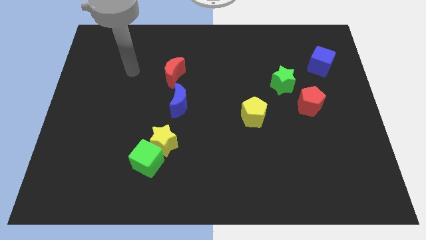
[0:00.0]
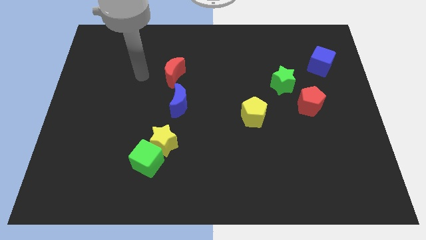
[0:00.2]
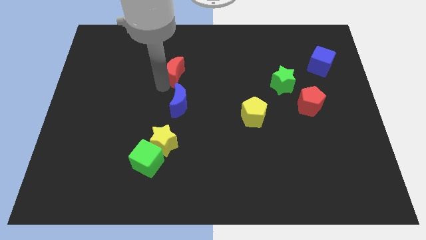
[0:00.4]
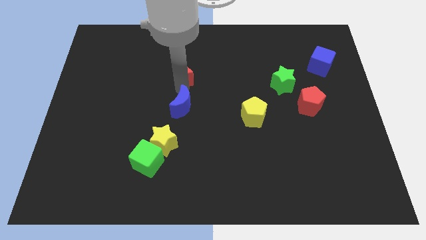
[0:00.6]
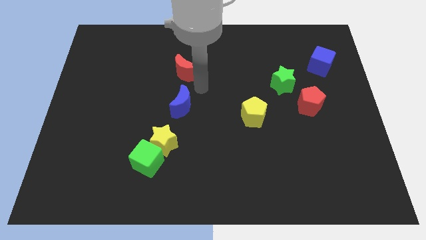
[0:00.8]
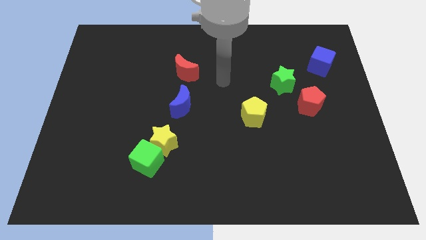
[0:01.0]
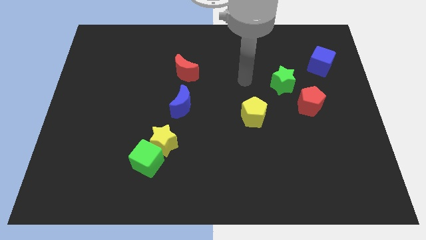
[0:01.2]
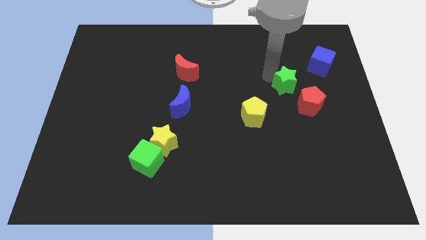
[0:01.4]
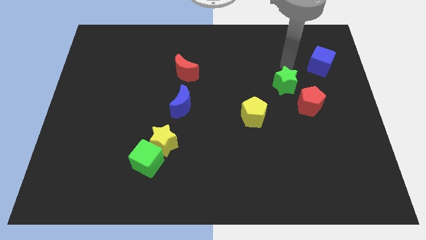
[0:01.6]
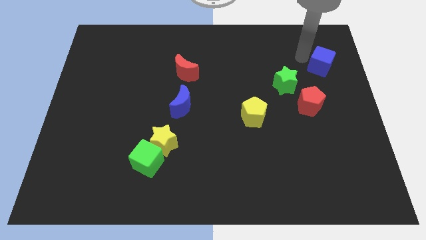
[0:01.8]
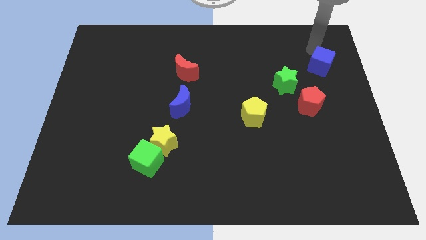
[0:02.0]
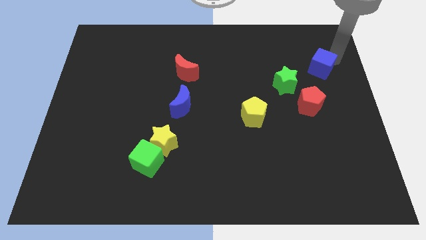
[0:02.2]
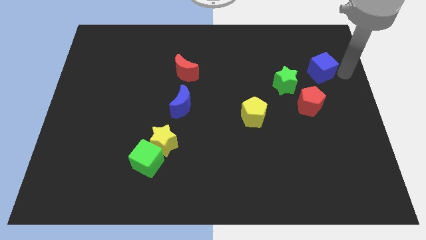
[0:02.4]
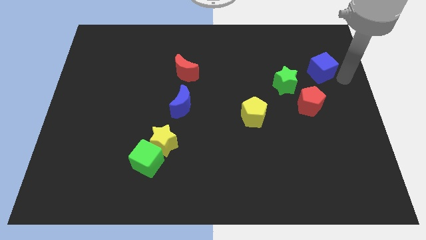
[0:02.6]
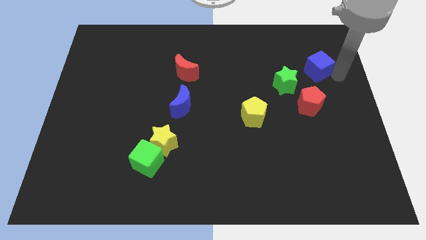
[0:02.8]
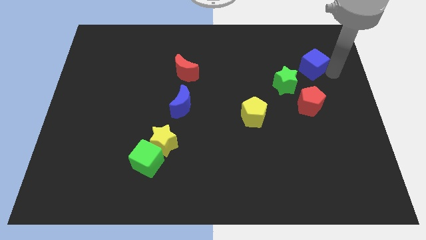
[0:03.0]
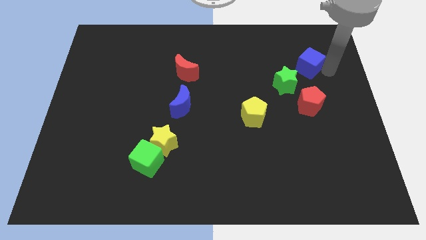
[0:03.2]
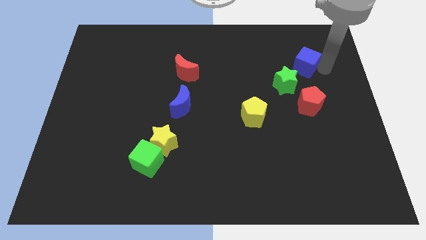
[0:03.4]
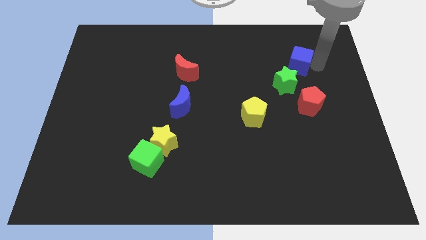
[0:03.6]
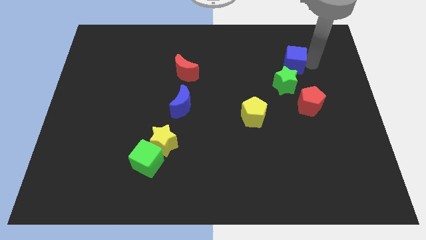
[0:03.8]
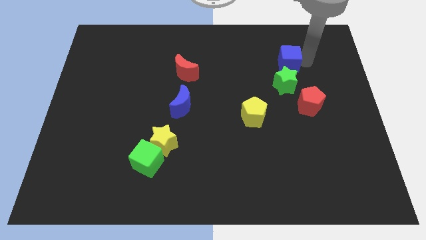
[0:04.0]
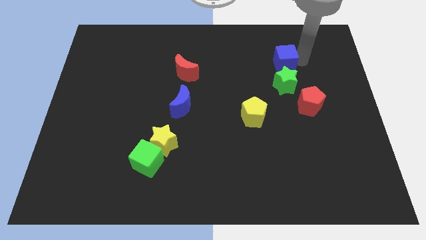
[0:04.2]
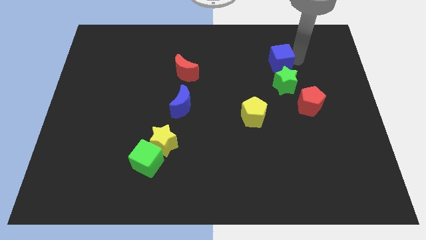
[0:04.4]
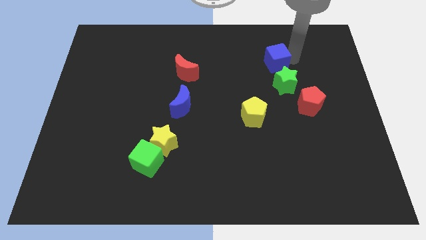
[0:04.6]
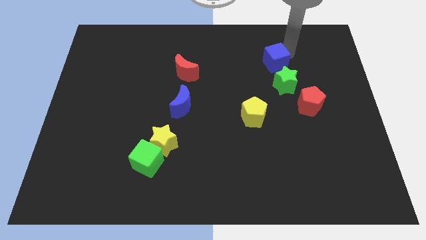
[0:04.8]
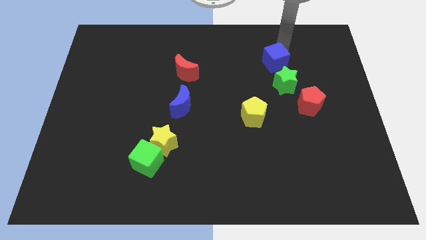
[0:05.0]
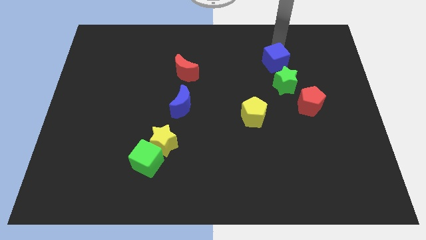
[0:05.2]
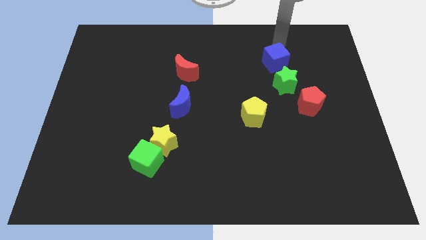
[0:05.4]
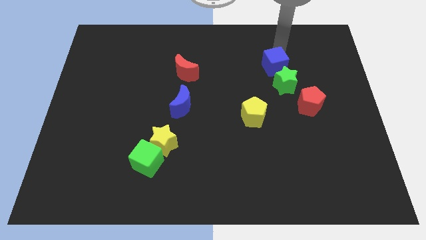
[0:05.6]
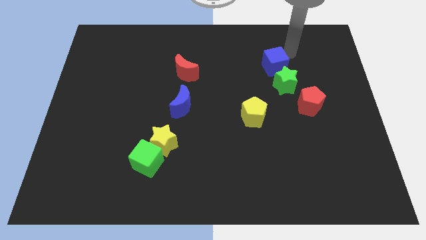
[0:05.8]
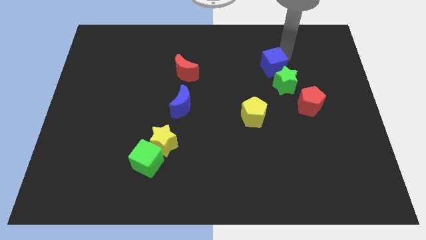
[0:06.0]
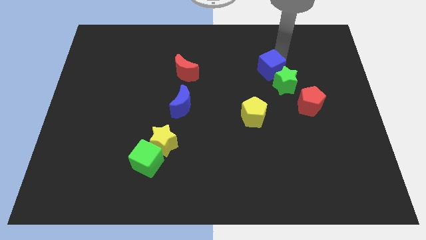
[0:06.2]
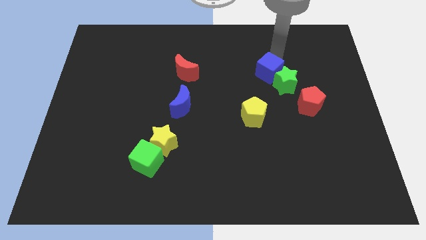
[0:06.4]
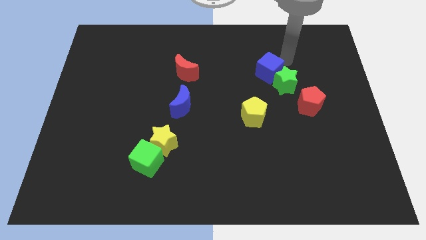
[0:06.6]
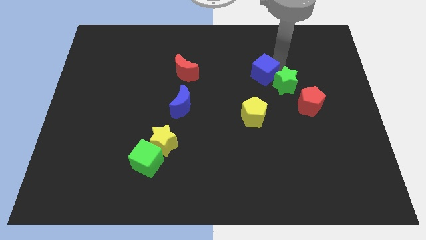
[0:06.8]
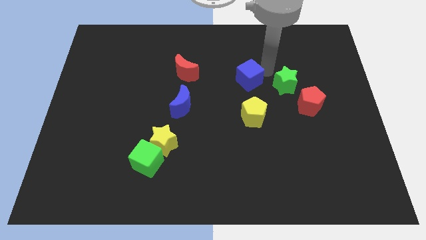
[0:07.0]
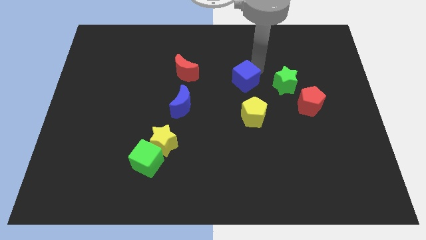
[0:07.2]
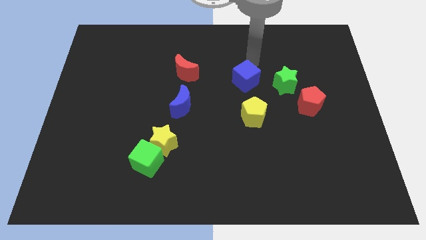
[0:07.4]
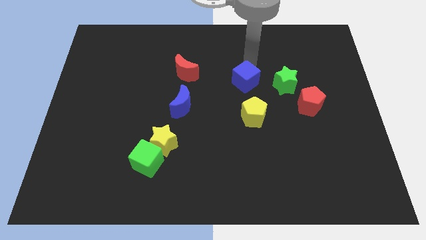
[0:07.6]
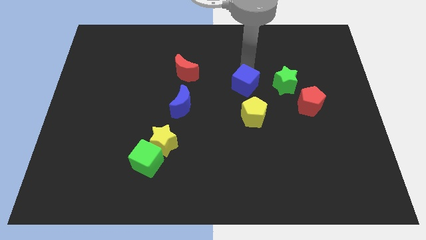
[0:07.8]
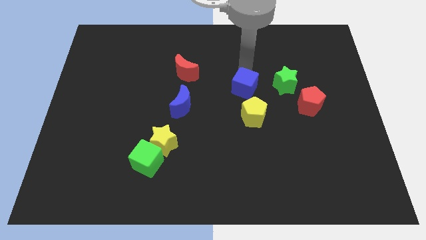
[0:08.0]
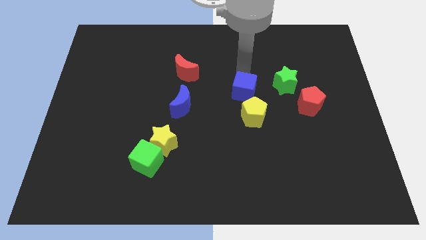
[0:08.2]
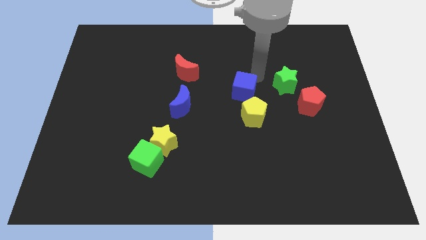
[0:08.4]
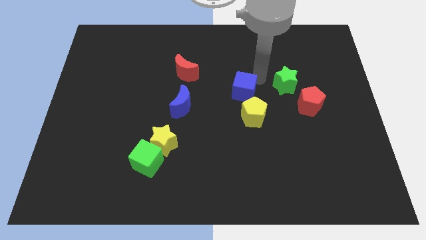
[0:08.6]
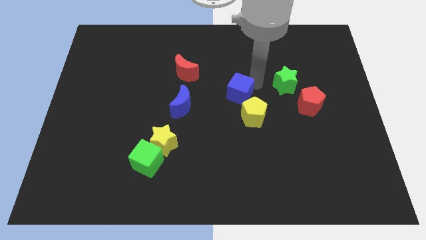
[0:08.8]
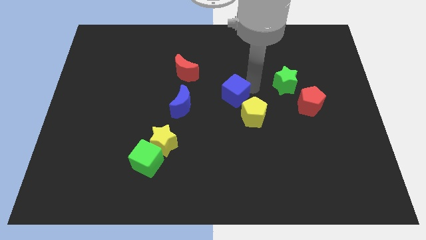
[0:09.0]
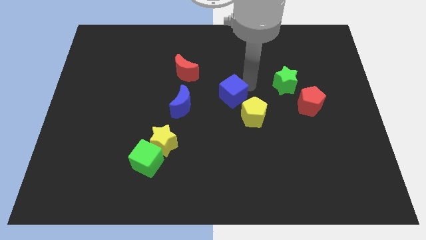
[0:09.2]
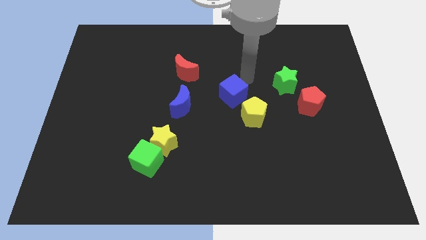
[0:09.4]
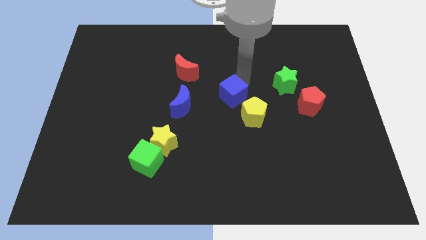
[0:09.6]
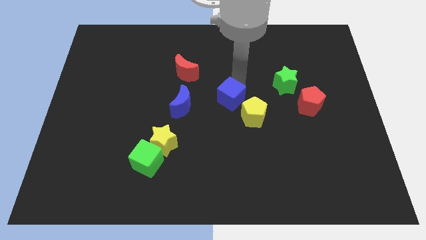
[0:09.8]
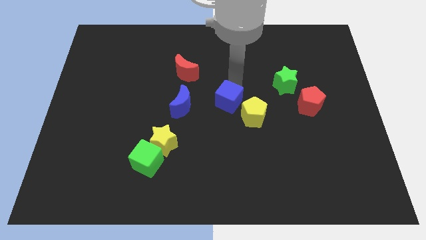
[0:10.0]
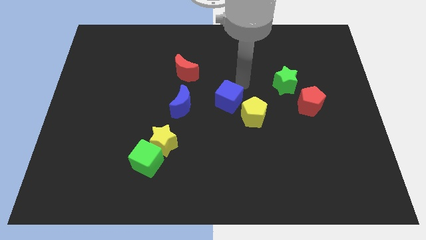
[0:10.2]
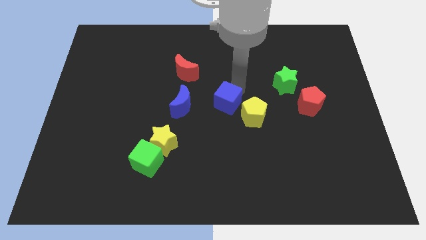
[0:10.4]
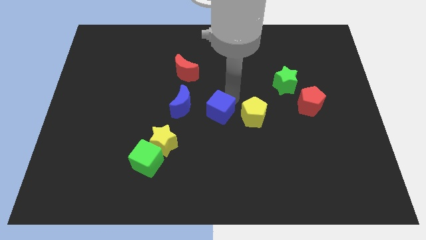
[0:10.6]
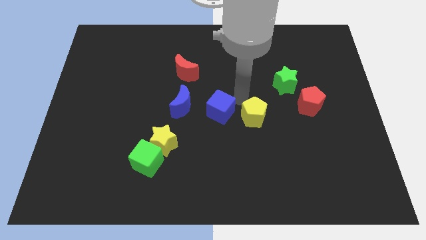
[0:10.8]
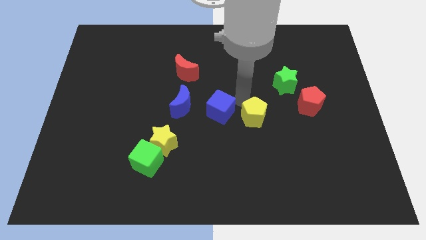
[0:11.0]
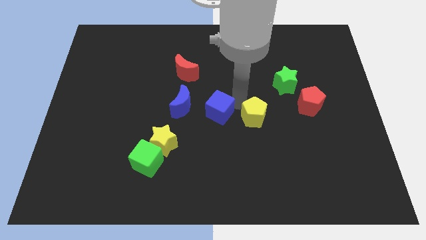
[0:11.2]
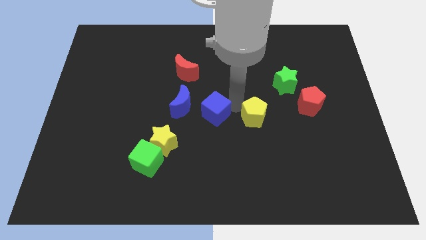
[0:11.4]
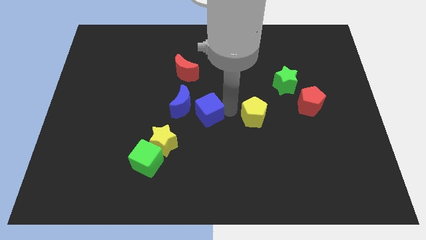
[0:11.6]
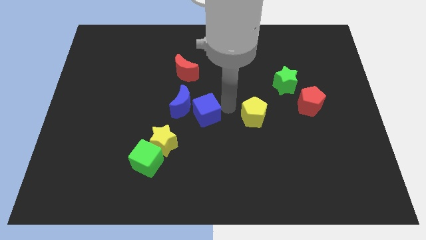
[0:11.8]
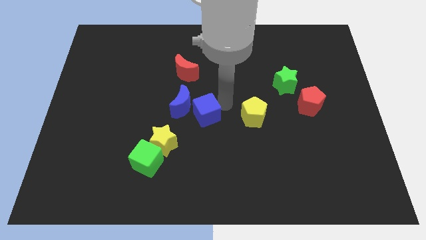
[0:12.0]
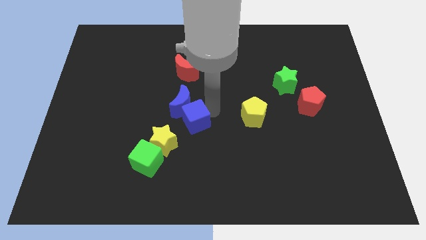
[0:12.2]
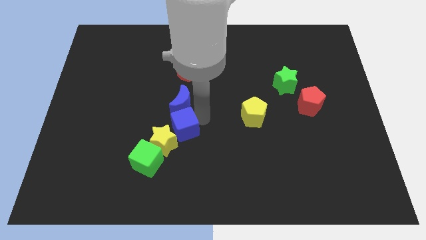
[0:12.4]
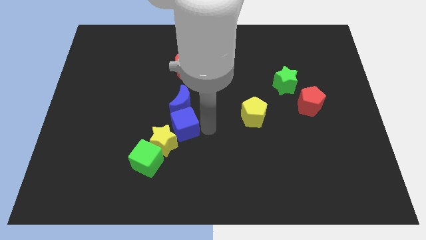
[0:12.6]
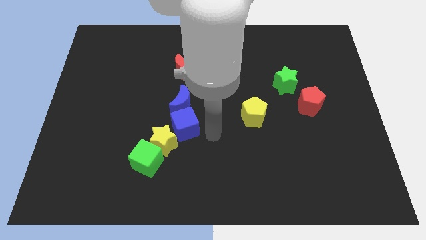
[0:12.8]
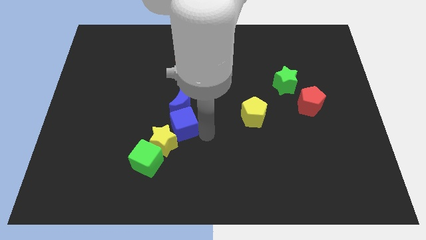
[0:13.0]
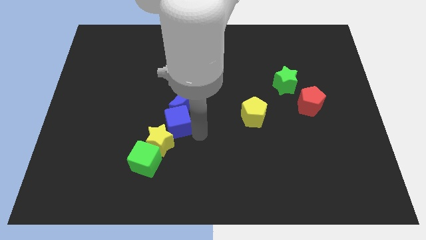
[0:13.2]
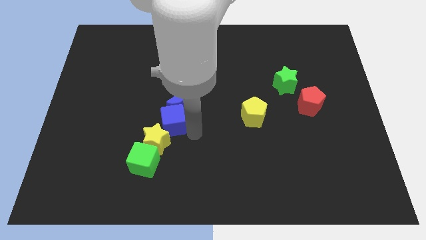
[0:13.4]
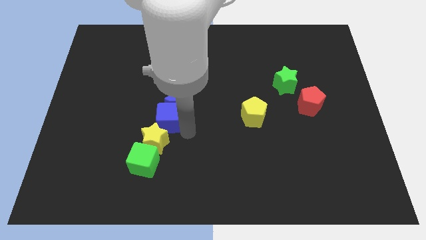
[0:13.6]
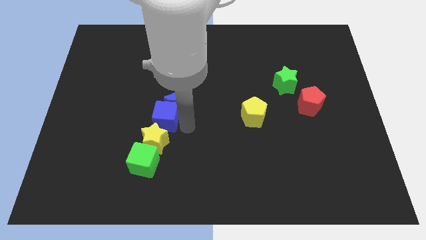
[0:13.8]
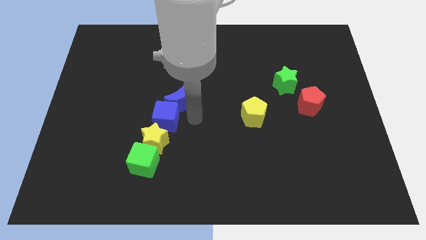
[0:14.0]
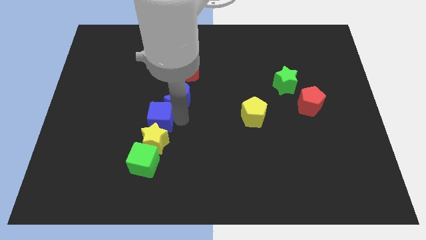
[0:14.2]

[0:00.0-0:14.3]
move the blue cube to the top left of the yellow star
